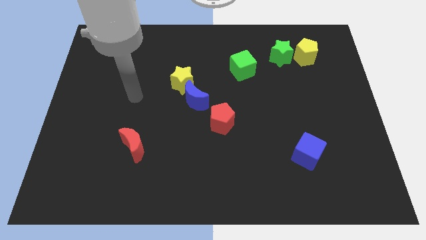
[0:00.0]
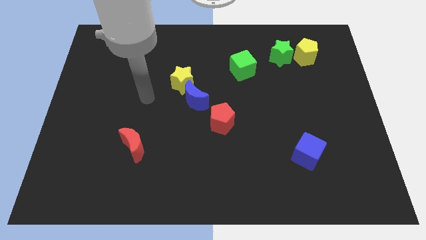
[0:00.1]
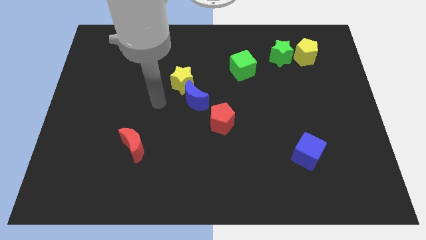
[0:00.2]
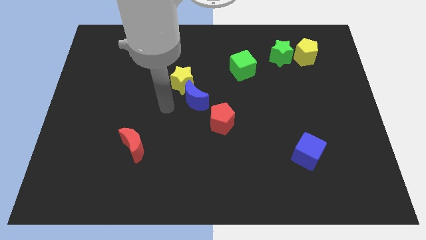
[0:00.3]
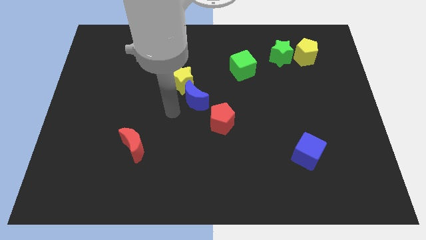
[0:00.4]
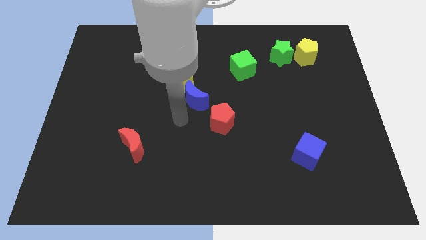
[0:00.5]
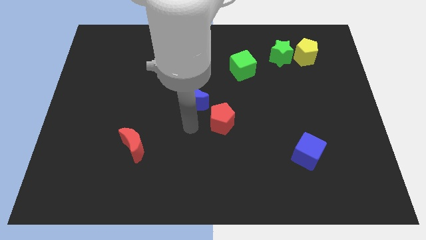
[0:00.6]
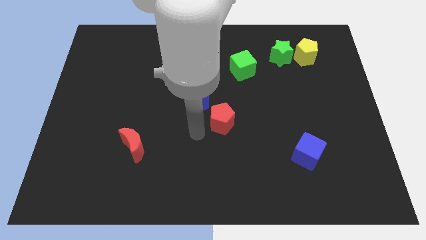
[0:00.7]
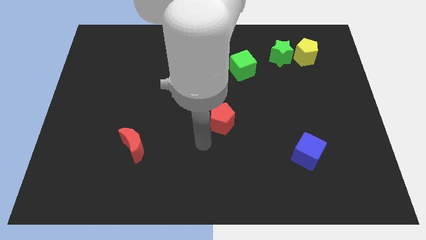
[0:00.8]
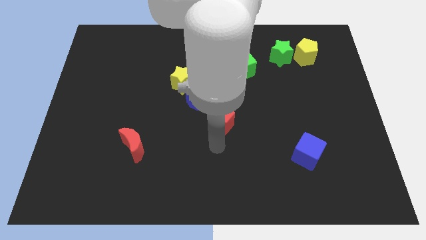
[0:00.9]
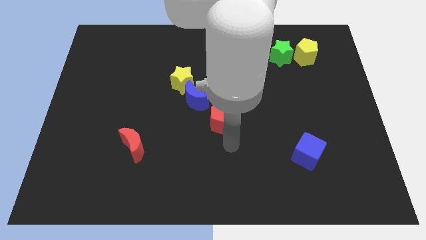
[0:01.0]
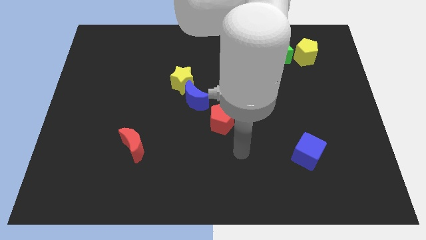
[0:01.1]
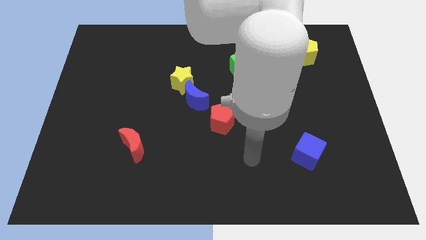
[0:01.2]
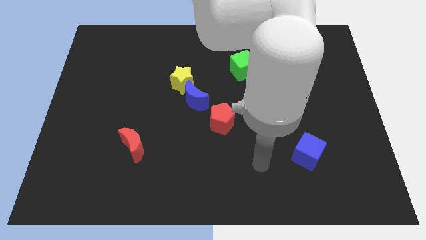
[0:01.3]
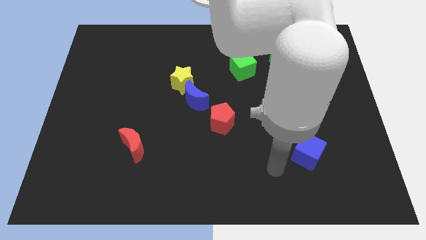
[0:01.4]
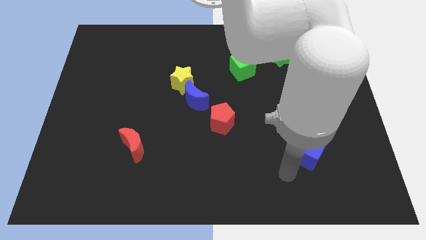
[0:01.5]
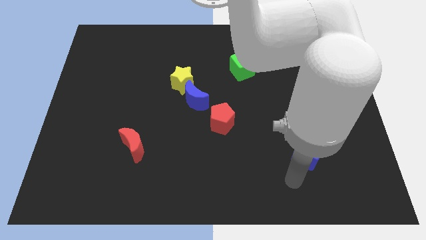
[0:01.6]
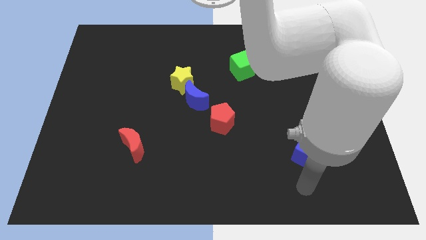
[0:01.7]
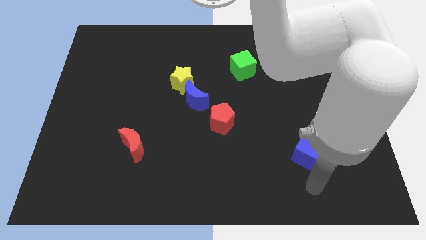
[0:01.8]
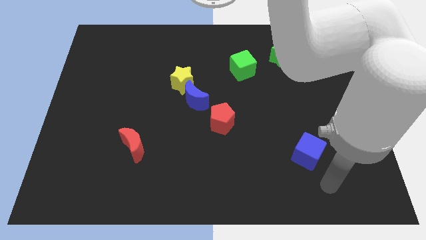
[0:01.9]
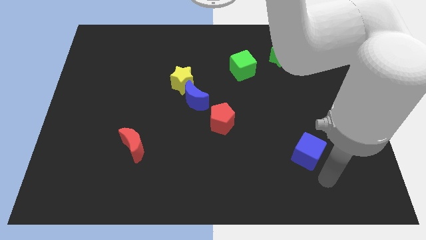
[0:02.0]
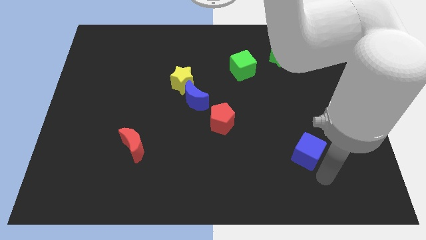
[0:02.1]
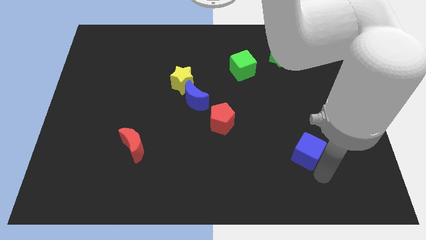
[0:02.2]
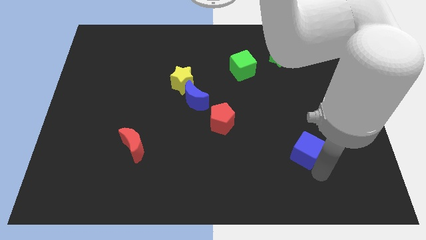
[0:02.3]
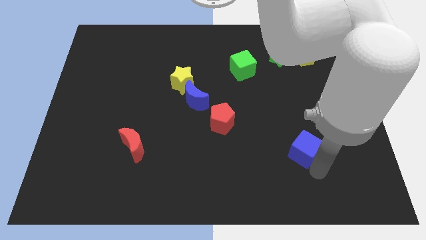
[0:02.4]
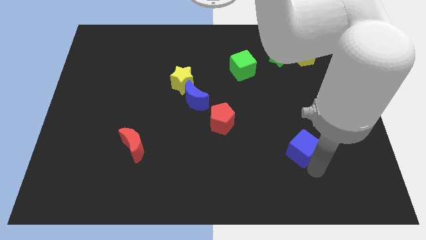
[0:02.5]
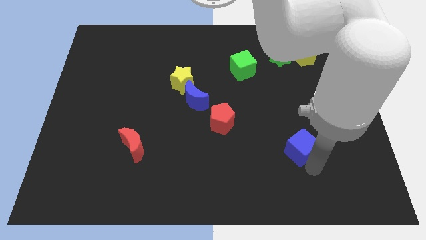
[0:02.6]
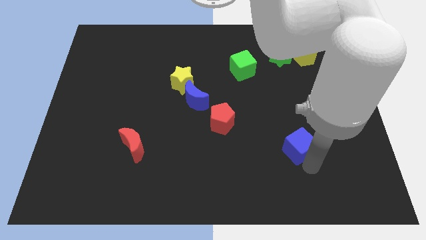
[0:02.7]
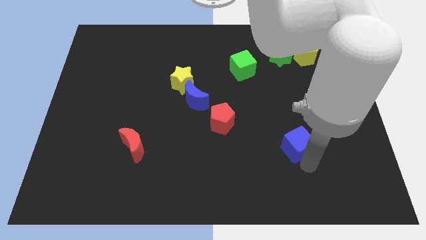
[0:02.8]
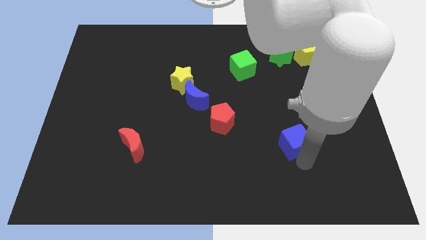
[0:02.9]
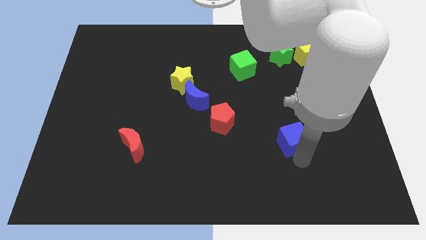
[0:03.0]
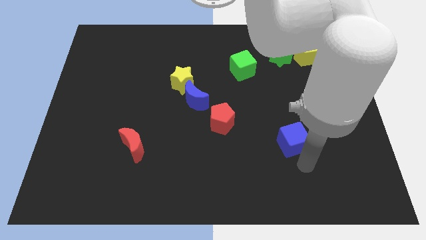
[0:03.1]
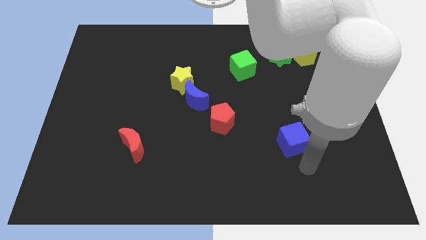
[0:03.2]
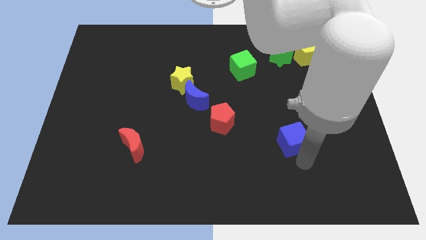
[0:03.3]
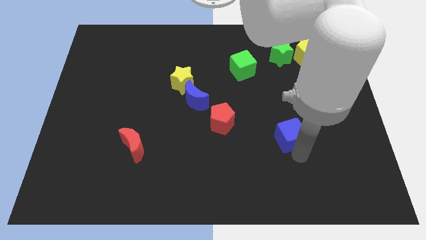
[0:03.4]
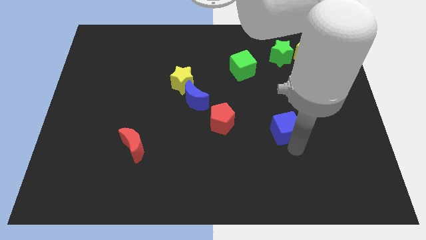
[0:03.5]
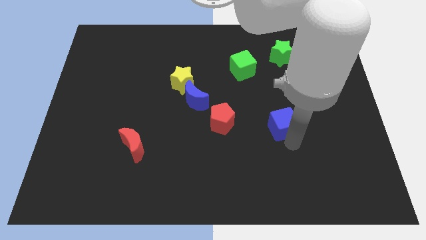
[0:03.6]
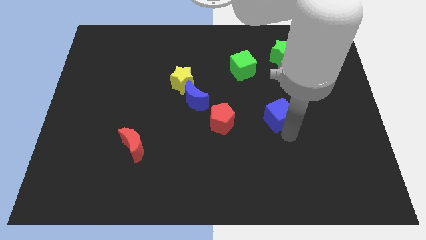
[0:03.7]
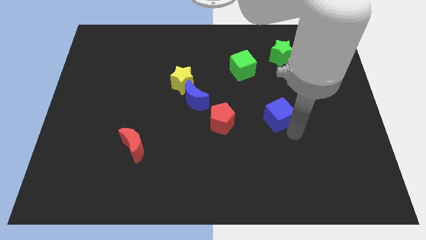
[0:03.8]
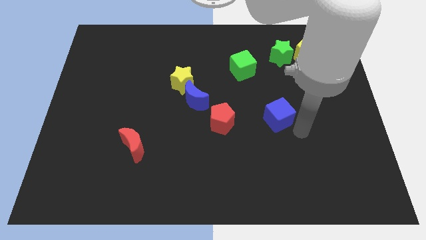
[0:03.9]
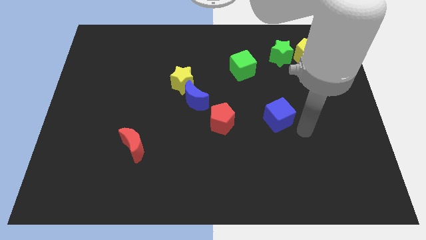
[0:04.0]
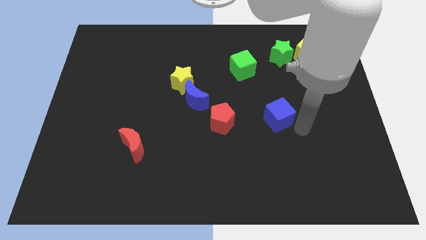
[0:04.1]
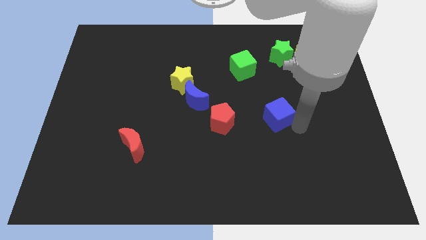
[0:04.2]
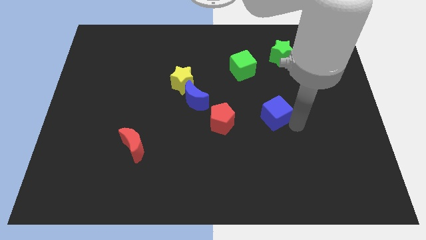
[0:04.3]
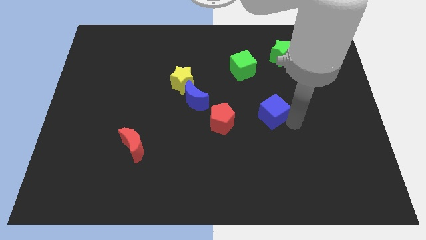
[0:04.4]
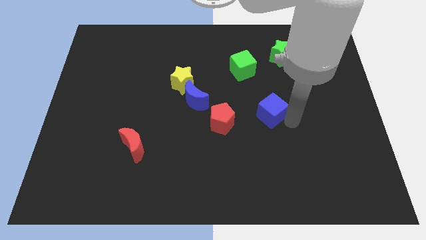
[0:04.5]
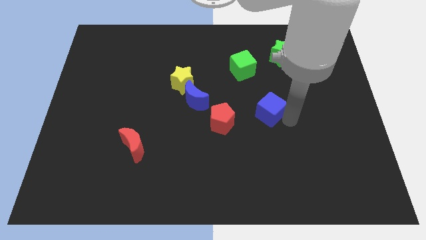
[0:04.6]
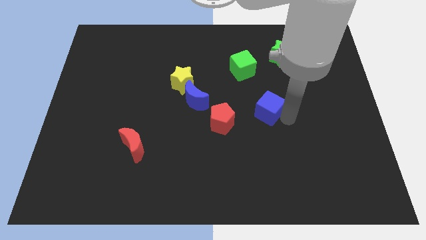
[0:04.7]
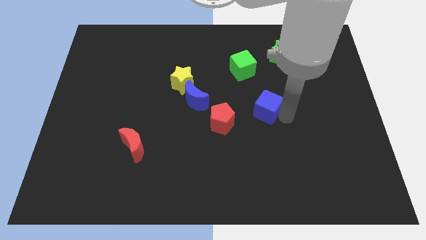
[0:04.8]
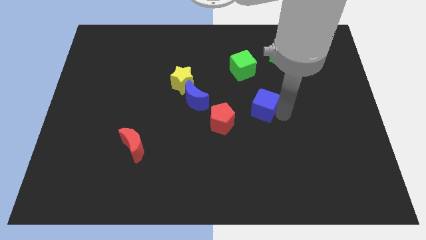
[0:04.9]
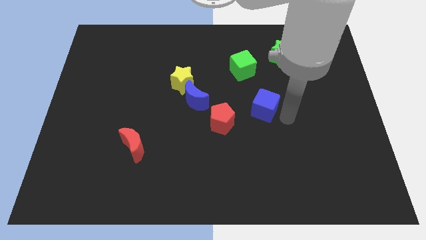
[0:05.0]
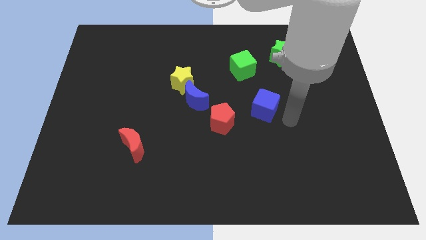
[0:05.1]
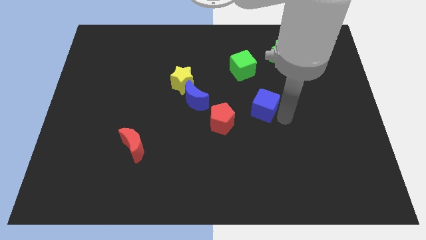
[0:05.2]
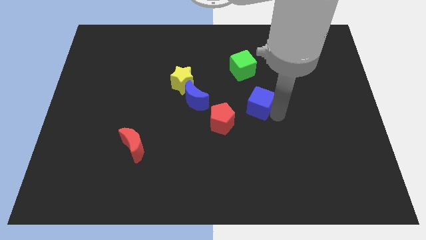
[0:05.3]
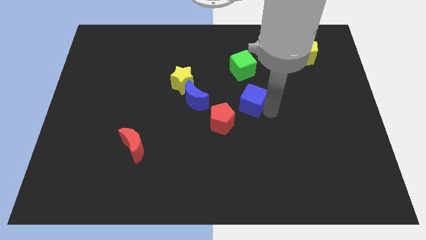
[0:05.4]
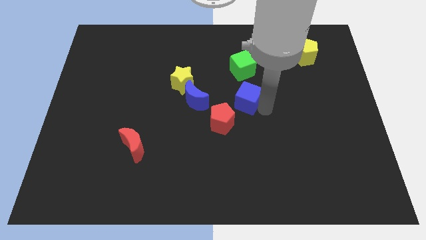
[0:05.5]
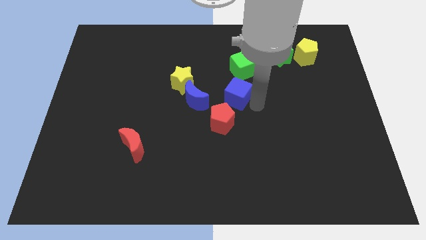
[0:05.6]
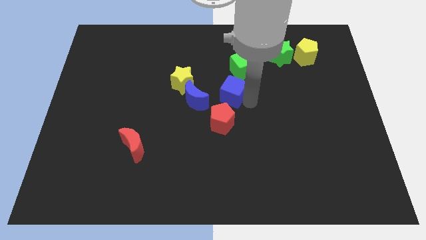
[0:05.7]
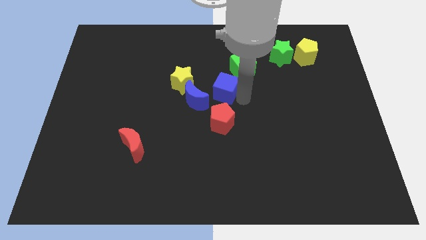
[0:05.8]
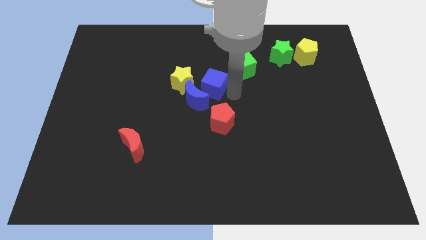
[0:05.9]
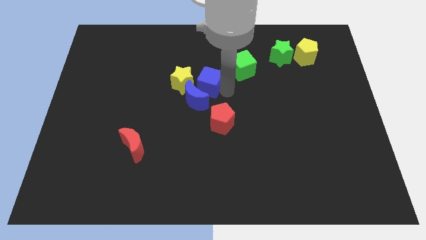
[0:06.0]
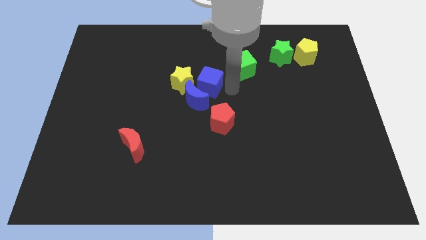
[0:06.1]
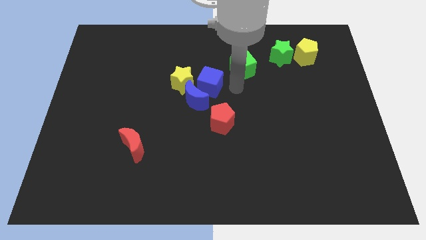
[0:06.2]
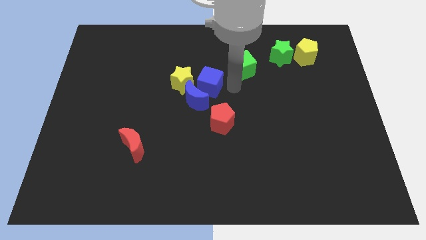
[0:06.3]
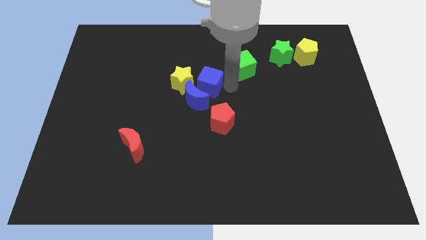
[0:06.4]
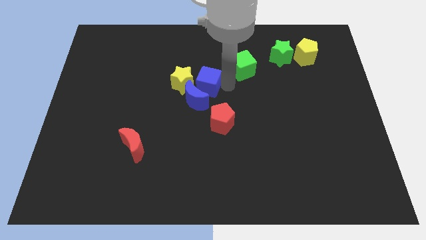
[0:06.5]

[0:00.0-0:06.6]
put the blue cube to the yellow star
